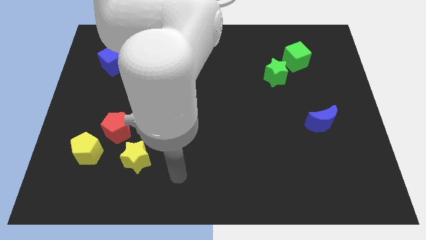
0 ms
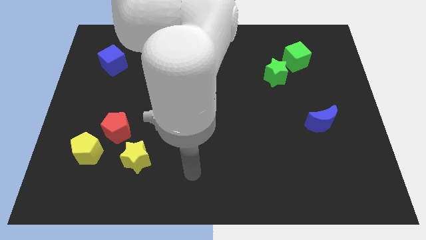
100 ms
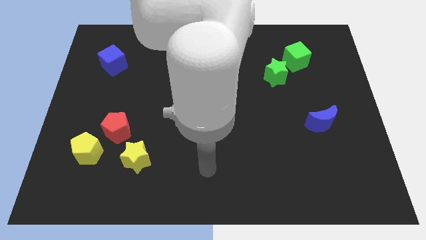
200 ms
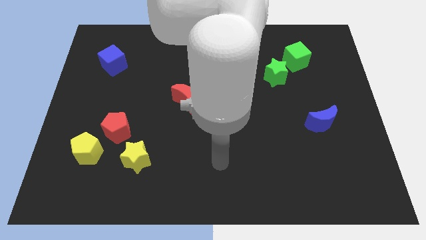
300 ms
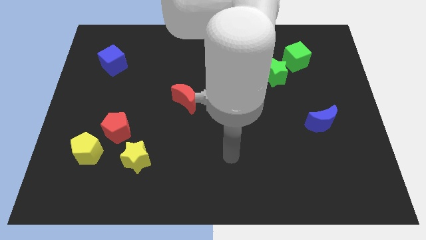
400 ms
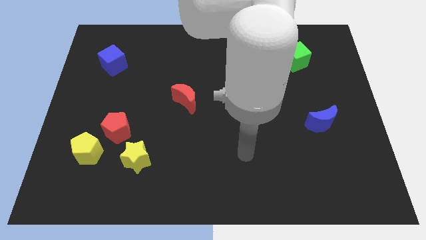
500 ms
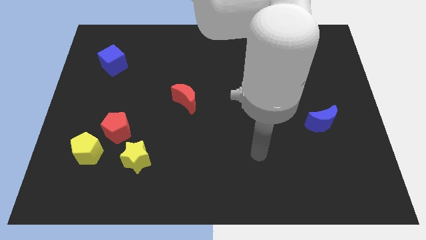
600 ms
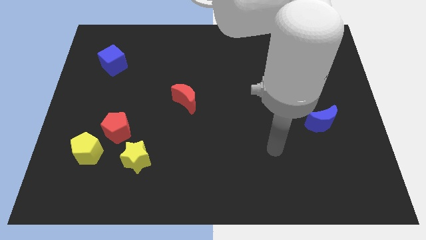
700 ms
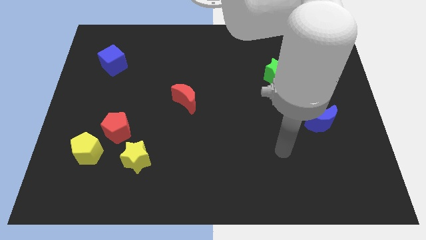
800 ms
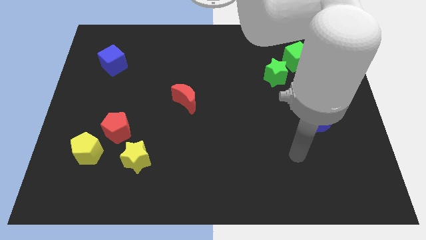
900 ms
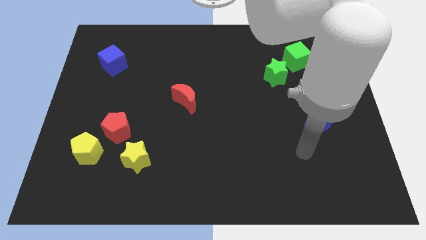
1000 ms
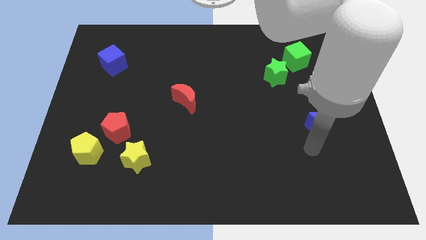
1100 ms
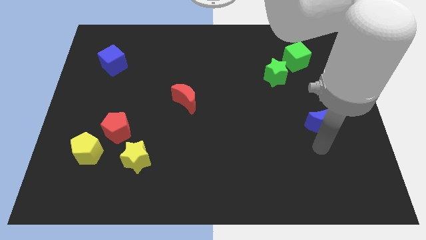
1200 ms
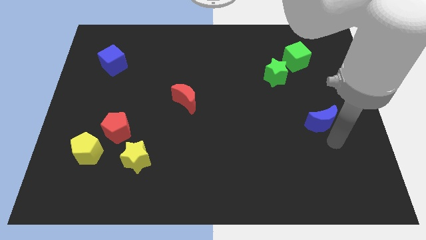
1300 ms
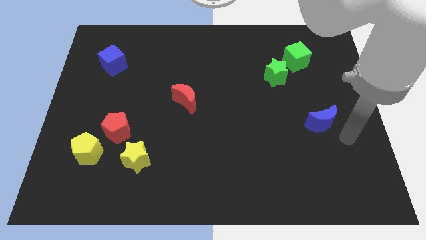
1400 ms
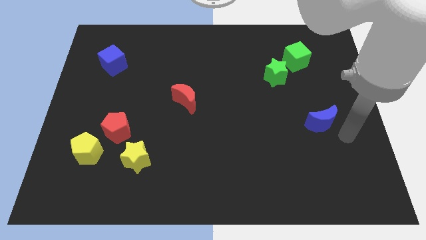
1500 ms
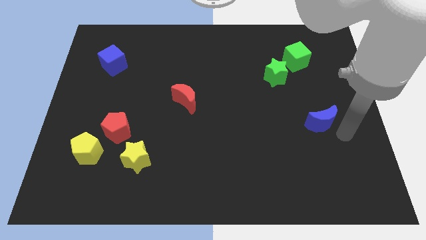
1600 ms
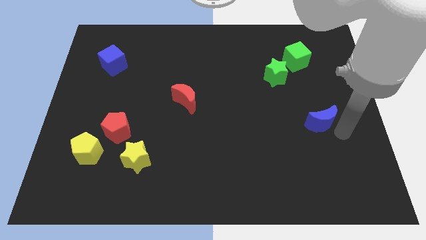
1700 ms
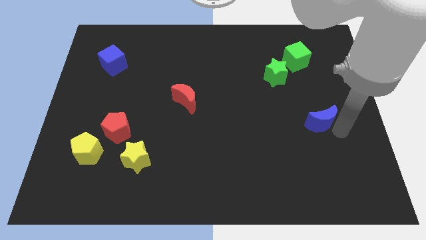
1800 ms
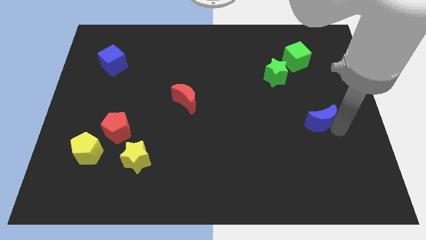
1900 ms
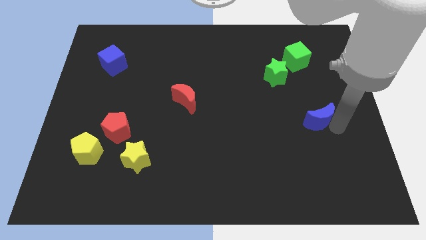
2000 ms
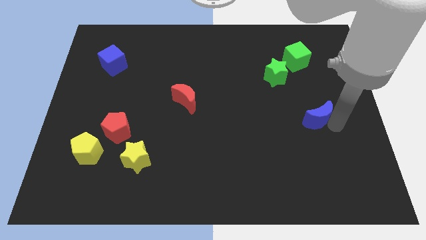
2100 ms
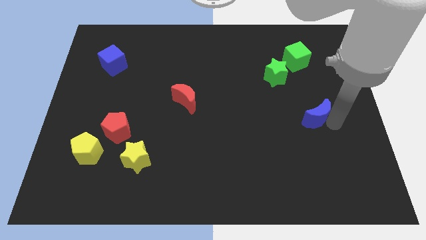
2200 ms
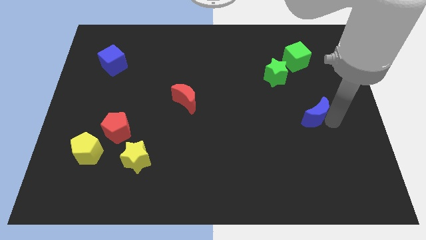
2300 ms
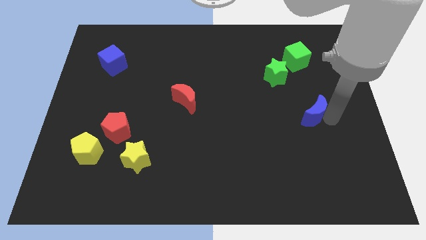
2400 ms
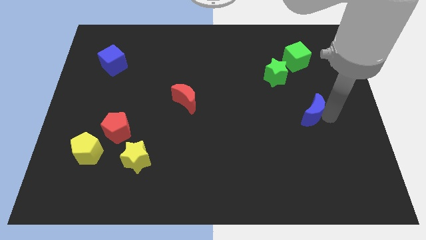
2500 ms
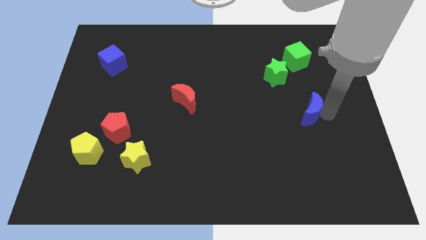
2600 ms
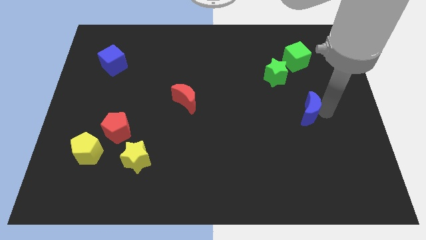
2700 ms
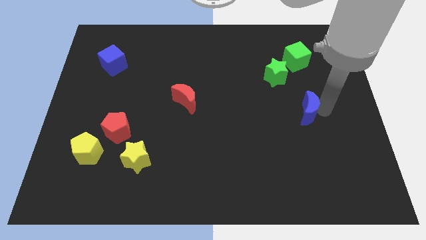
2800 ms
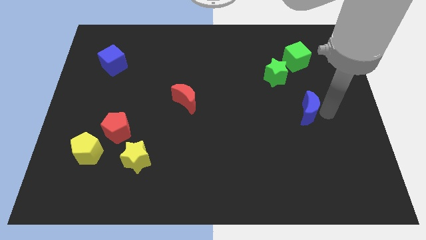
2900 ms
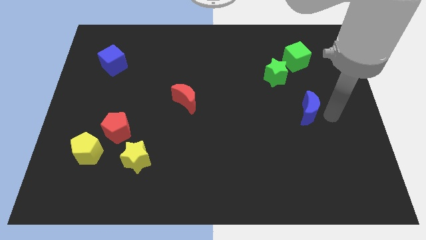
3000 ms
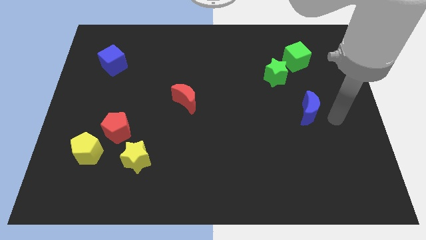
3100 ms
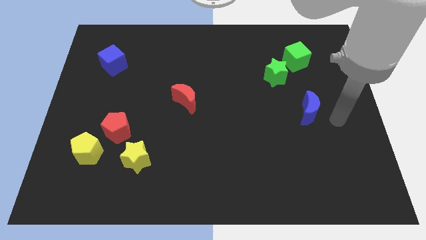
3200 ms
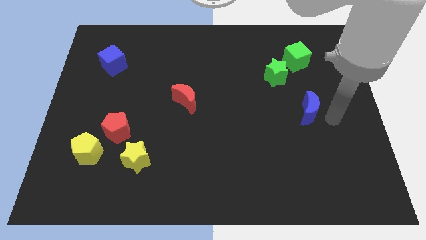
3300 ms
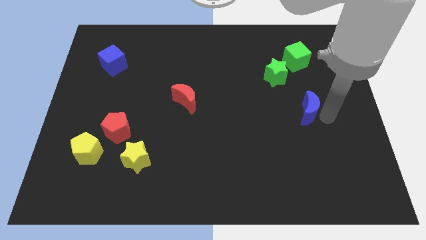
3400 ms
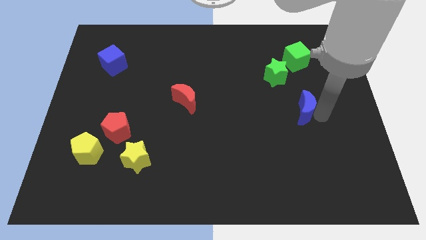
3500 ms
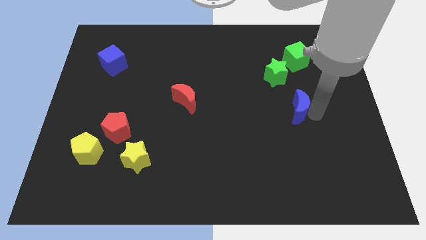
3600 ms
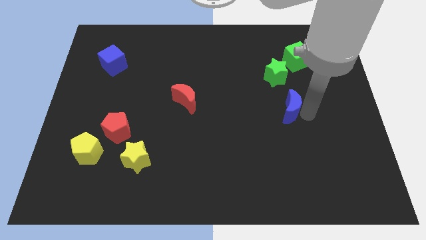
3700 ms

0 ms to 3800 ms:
push the blue moon up and to the left diagonally a bit

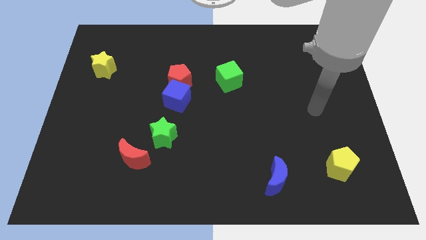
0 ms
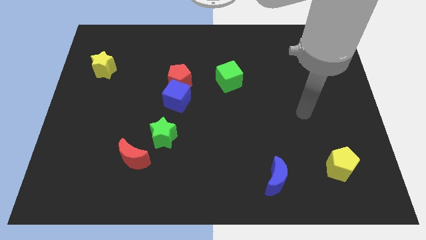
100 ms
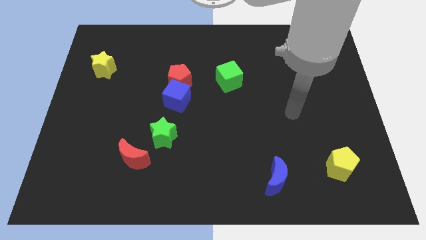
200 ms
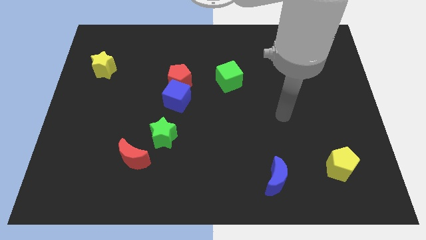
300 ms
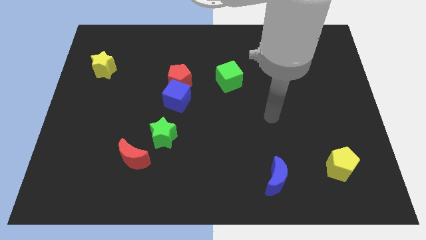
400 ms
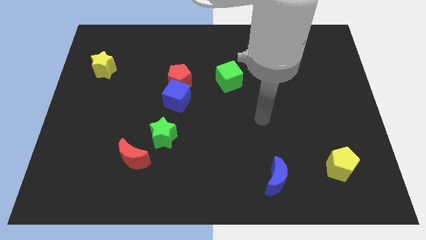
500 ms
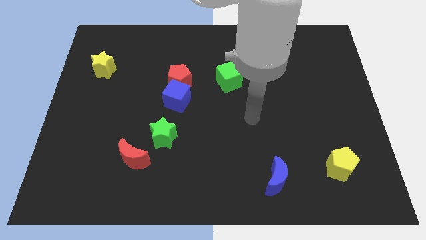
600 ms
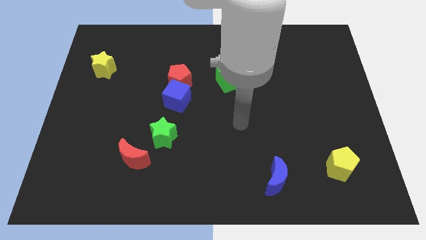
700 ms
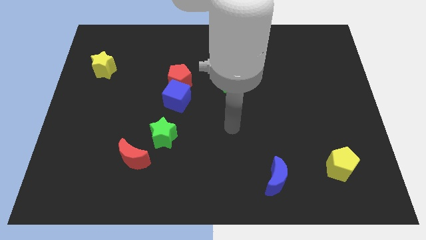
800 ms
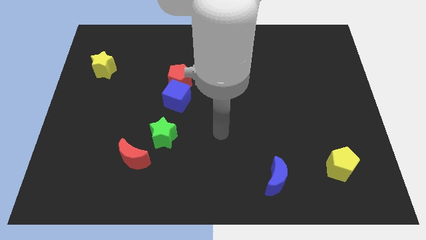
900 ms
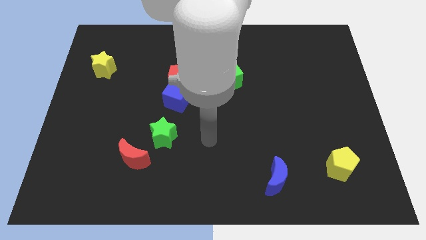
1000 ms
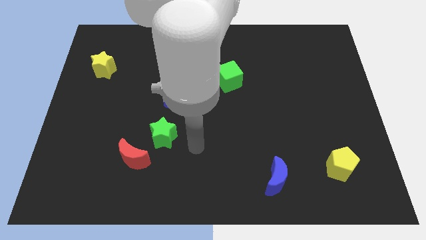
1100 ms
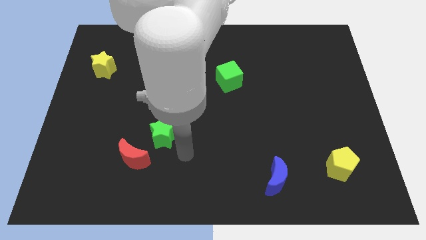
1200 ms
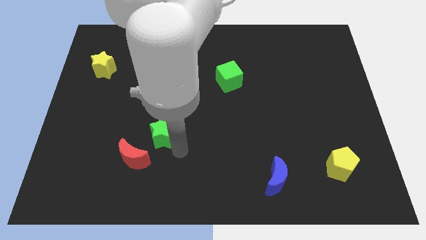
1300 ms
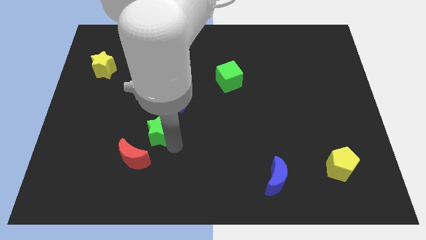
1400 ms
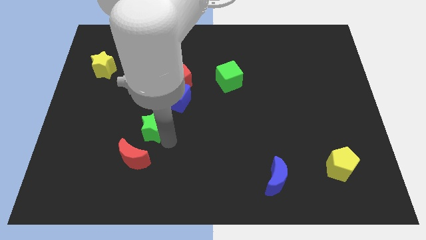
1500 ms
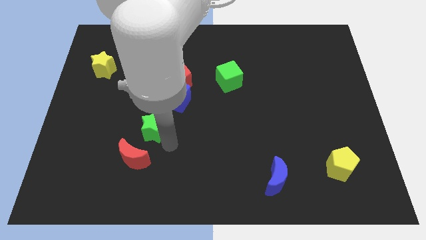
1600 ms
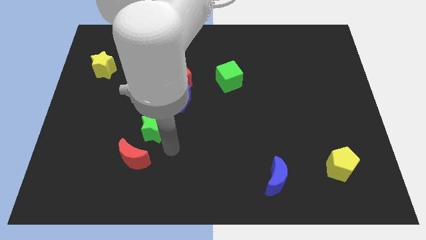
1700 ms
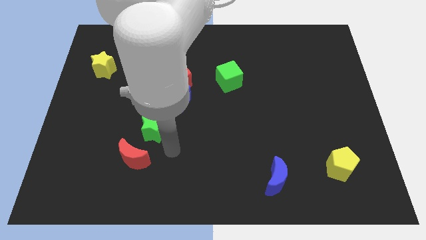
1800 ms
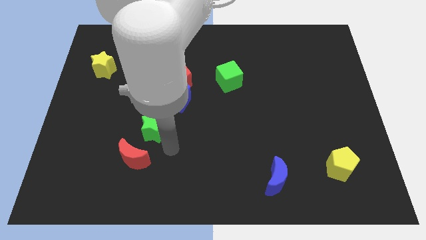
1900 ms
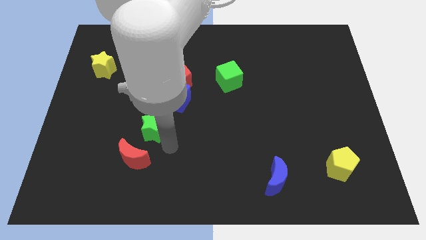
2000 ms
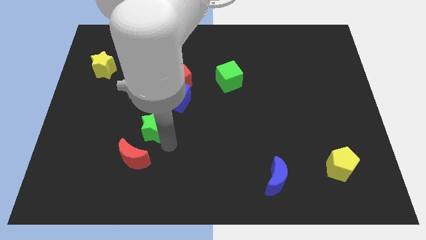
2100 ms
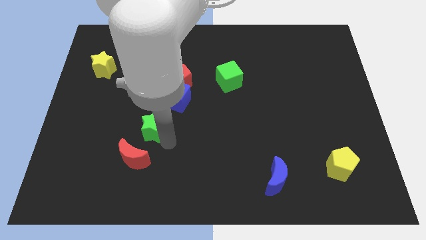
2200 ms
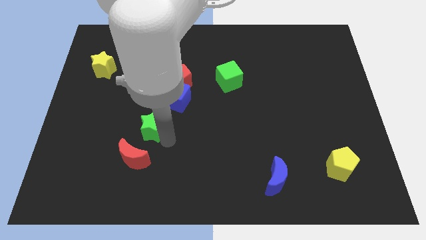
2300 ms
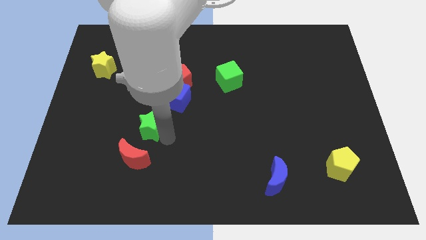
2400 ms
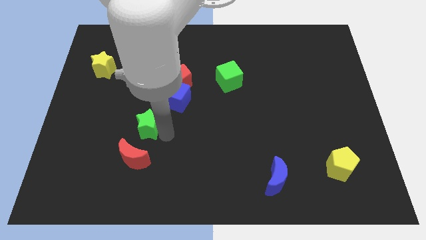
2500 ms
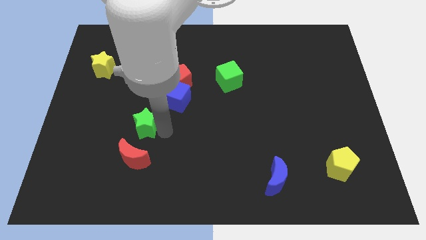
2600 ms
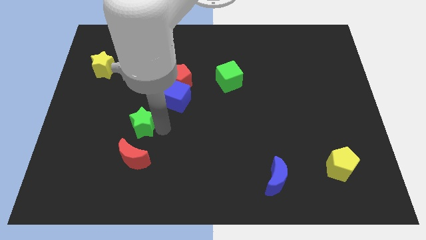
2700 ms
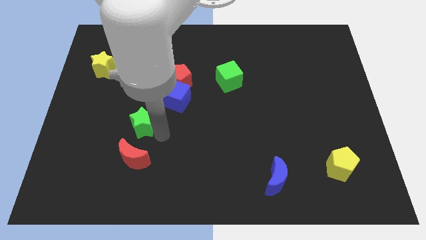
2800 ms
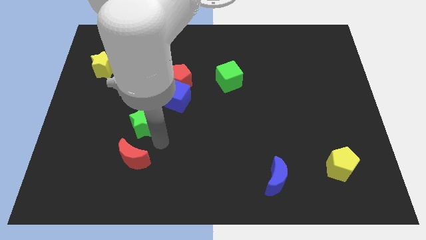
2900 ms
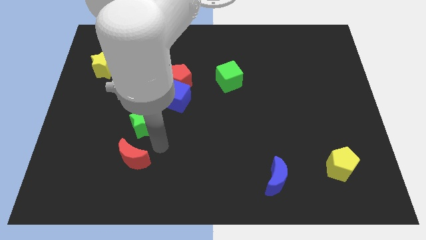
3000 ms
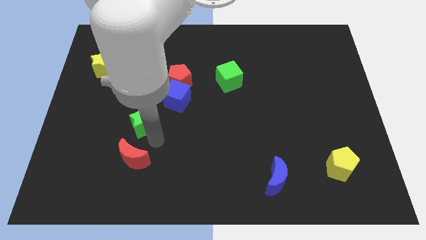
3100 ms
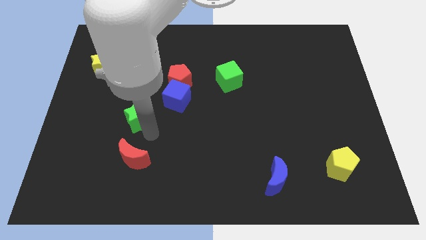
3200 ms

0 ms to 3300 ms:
slide the green star a bit diagonally upwards and left

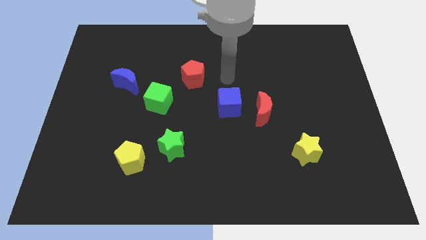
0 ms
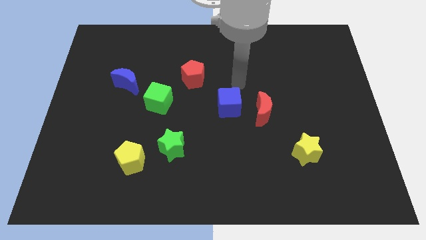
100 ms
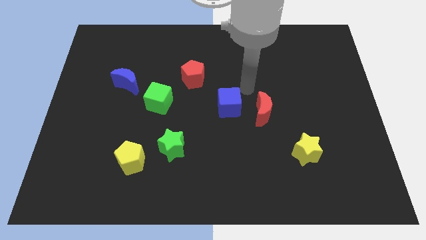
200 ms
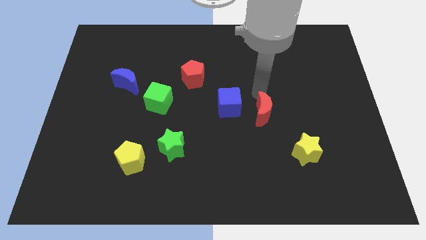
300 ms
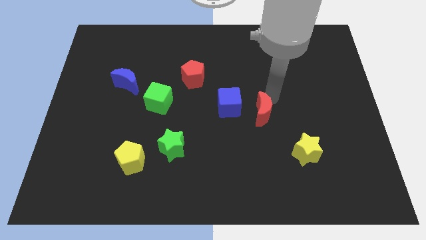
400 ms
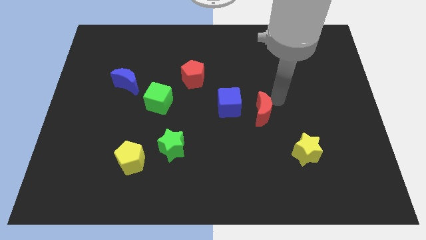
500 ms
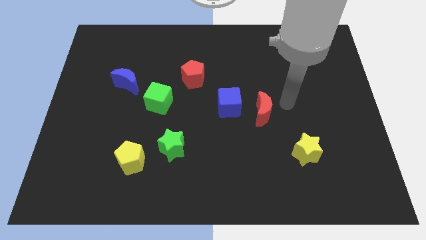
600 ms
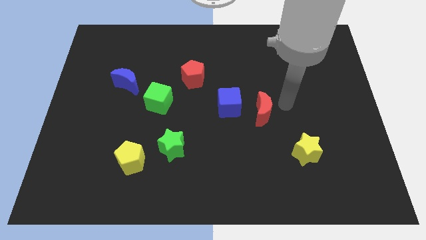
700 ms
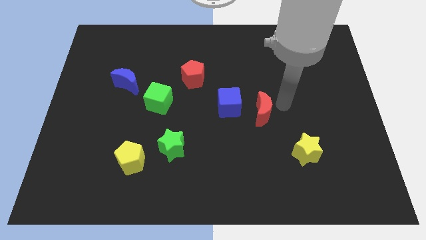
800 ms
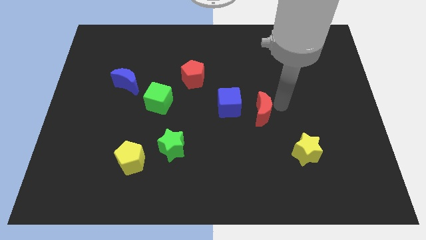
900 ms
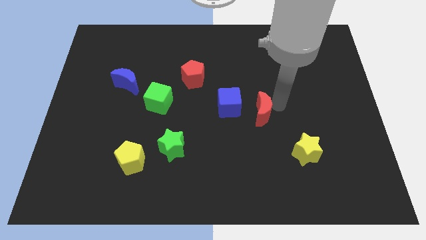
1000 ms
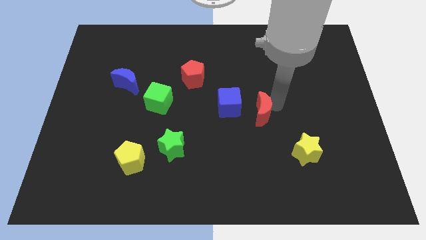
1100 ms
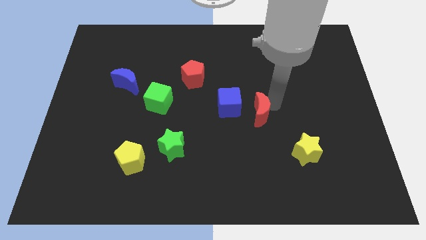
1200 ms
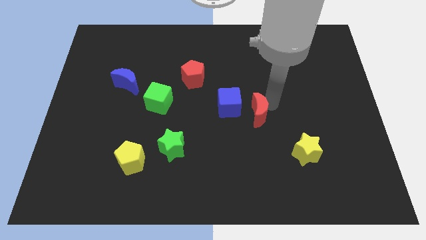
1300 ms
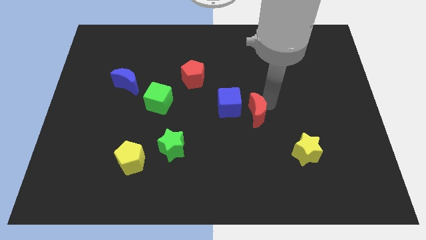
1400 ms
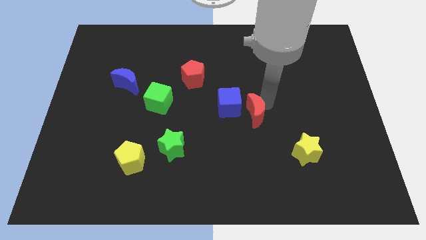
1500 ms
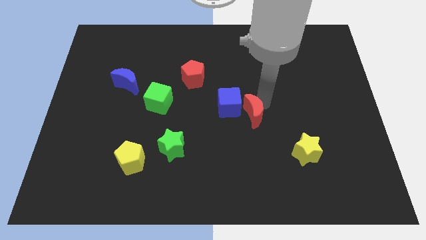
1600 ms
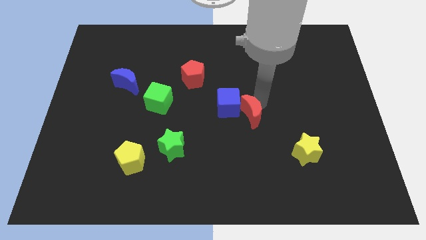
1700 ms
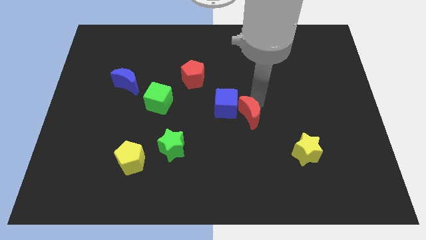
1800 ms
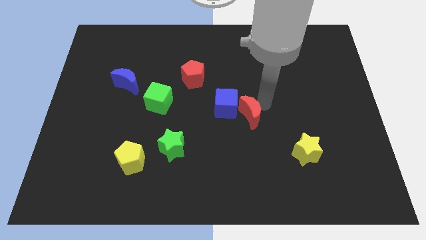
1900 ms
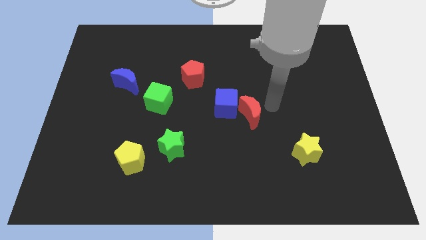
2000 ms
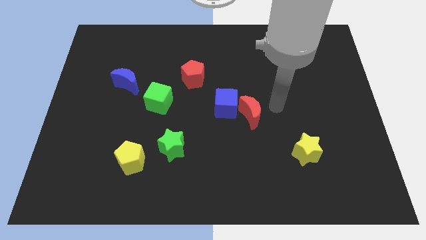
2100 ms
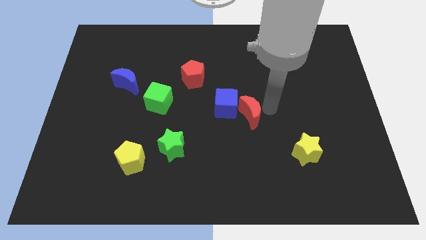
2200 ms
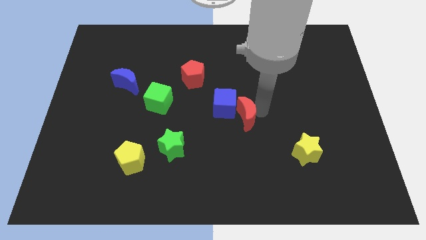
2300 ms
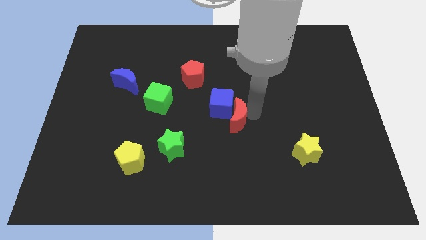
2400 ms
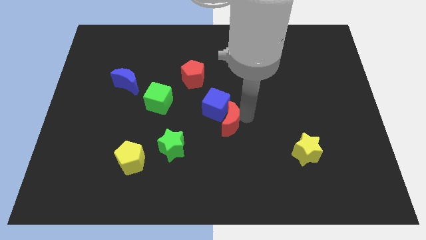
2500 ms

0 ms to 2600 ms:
slightly push the red moon to the left
